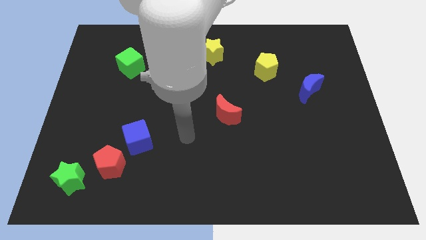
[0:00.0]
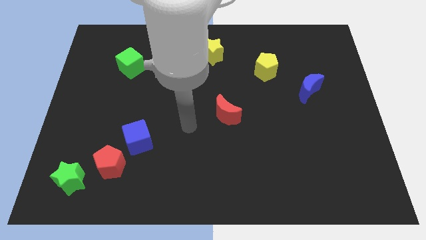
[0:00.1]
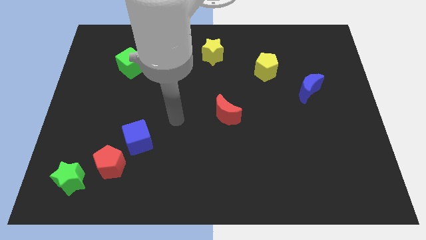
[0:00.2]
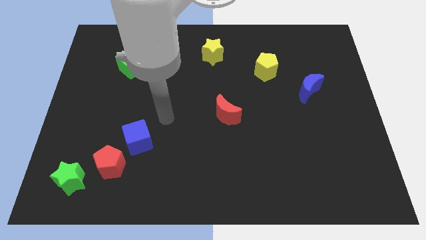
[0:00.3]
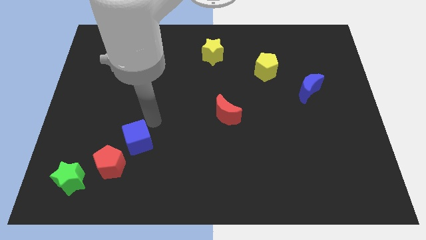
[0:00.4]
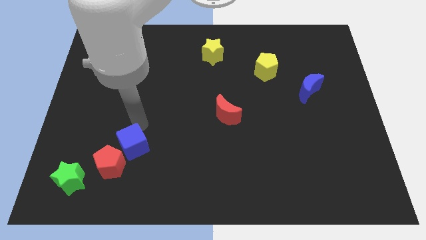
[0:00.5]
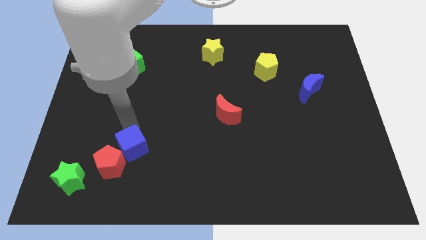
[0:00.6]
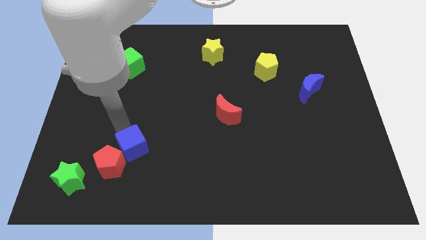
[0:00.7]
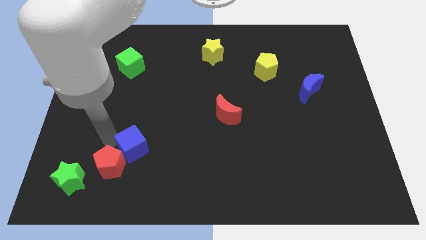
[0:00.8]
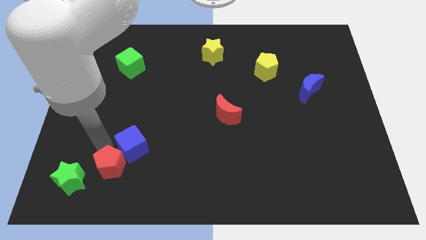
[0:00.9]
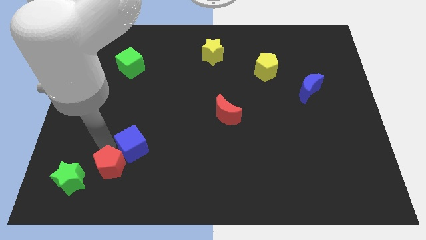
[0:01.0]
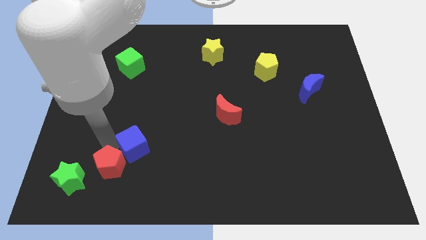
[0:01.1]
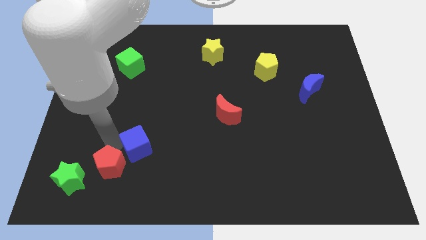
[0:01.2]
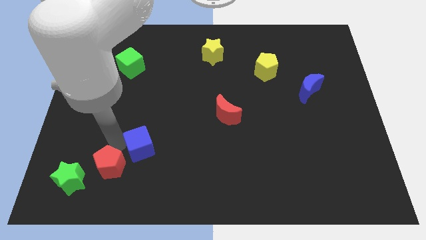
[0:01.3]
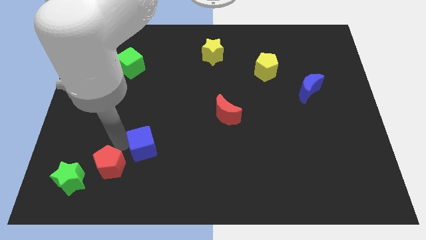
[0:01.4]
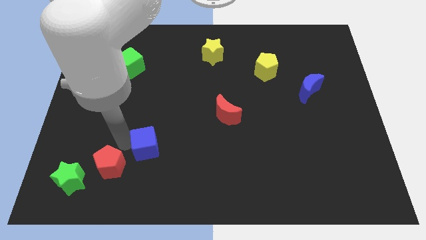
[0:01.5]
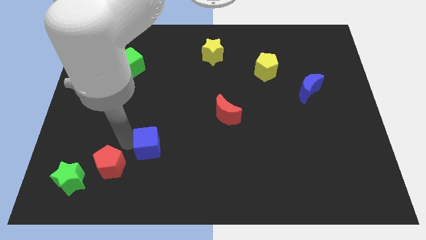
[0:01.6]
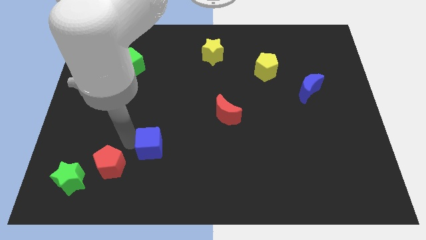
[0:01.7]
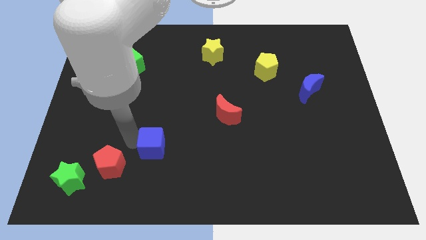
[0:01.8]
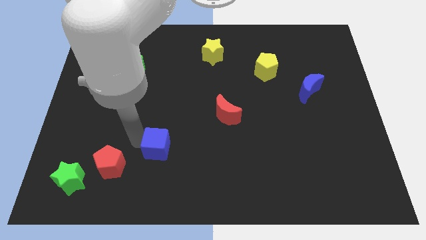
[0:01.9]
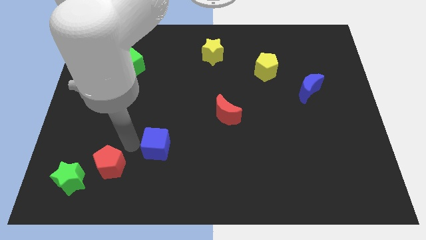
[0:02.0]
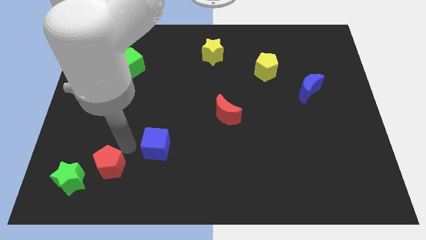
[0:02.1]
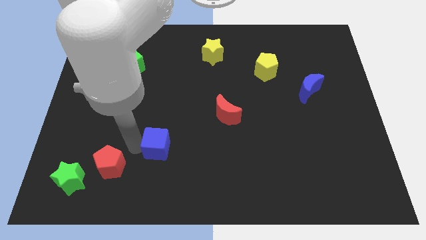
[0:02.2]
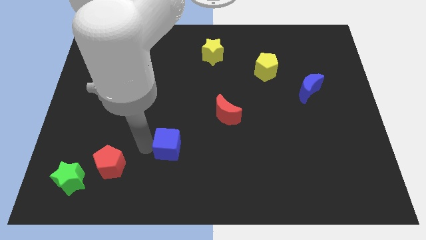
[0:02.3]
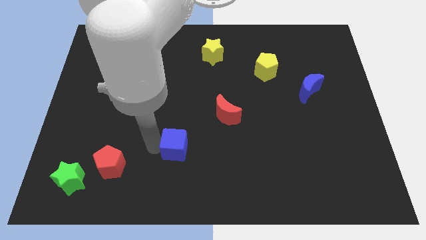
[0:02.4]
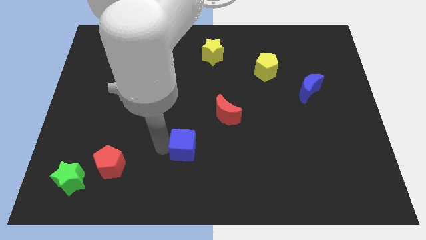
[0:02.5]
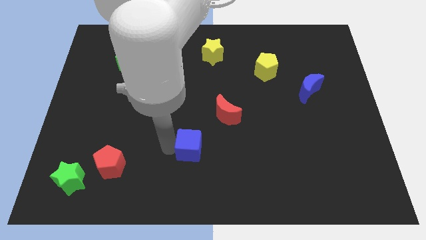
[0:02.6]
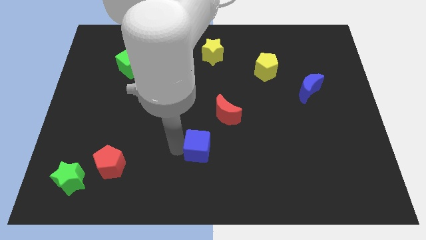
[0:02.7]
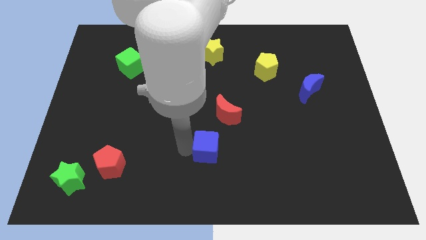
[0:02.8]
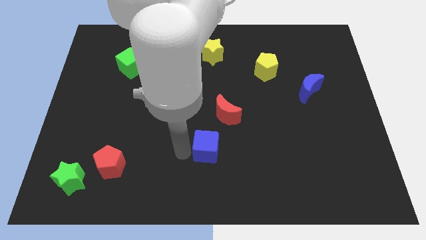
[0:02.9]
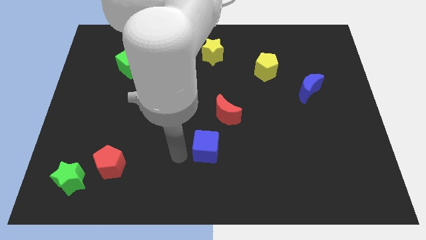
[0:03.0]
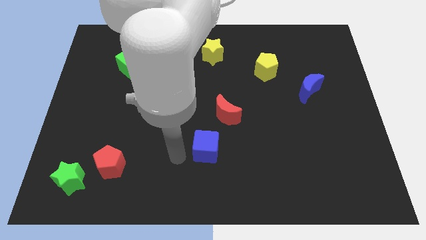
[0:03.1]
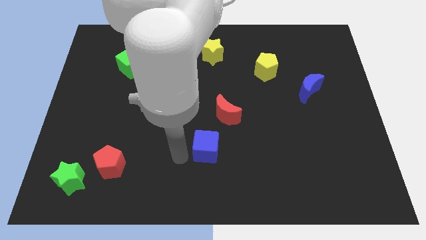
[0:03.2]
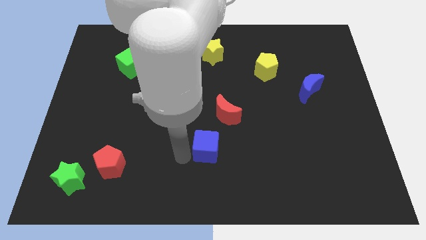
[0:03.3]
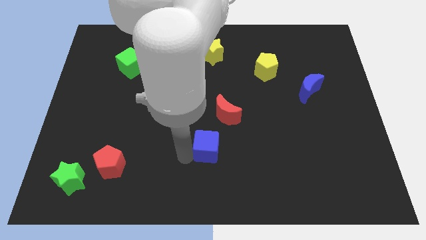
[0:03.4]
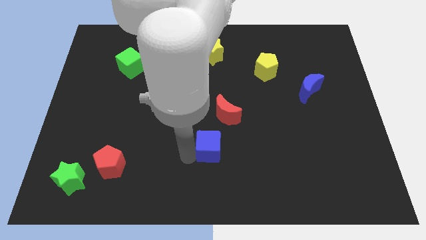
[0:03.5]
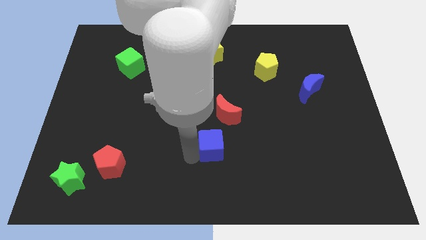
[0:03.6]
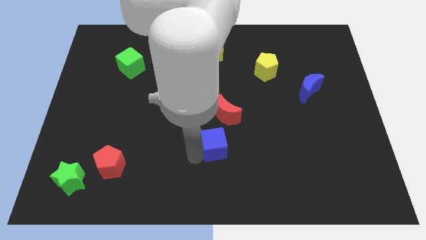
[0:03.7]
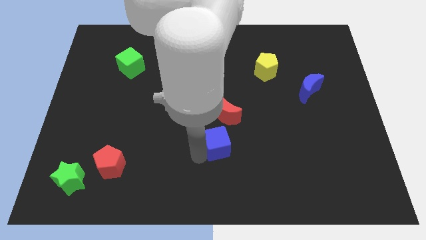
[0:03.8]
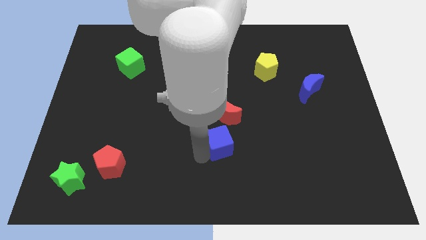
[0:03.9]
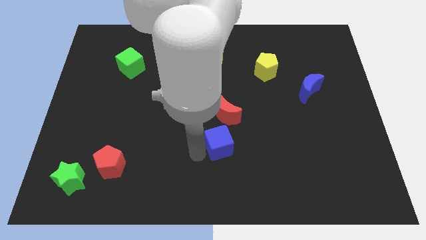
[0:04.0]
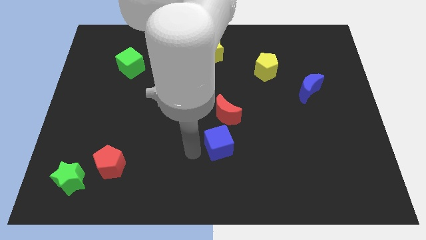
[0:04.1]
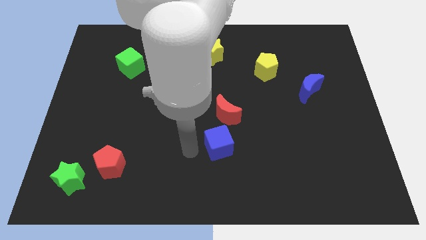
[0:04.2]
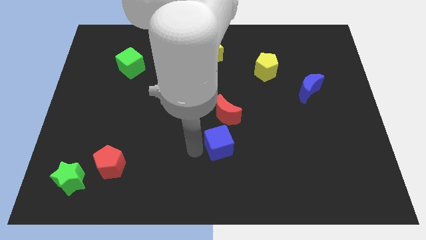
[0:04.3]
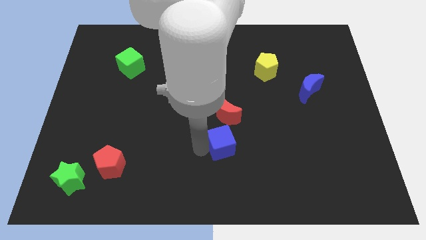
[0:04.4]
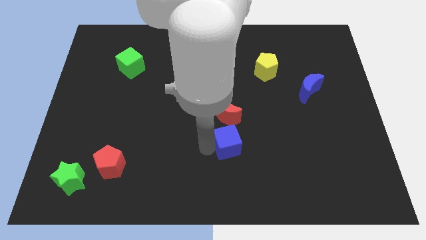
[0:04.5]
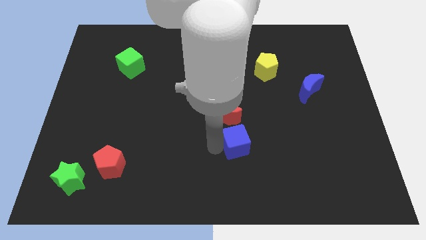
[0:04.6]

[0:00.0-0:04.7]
slide the blue cube to the right

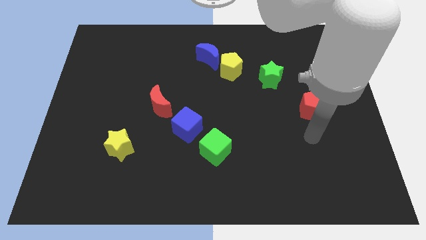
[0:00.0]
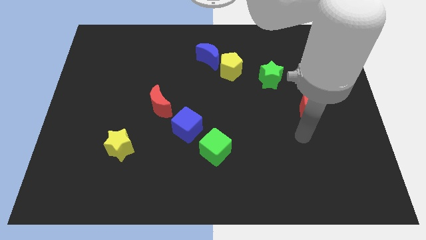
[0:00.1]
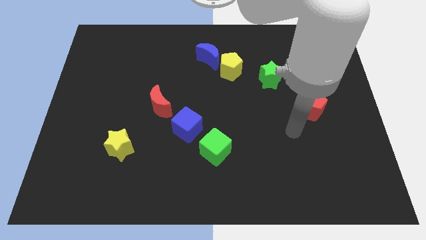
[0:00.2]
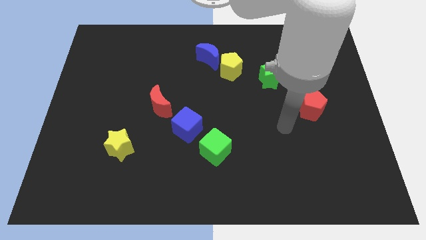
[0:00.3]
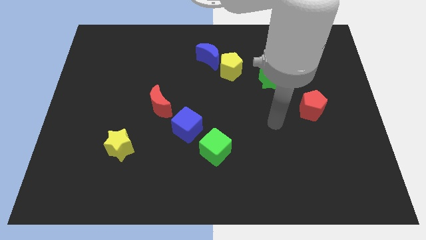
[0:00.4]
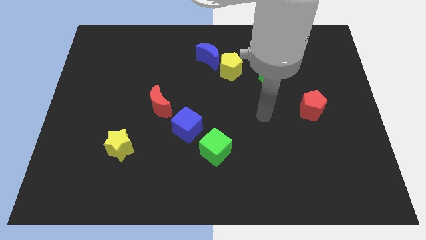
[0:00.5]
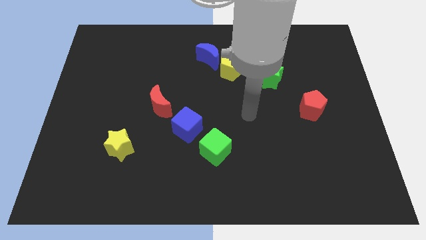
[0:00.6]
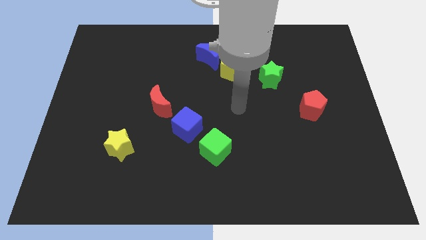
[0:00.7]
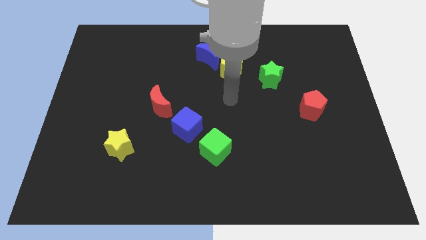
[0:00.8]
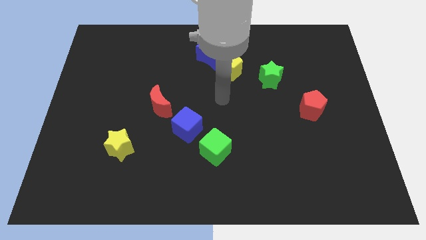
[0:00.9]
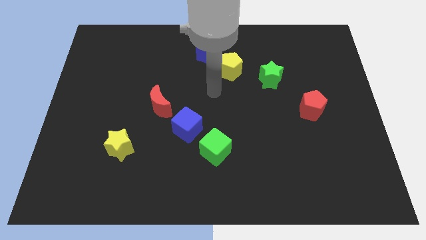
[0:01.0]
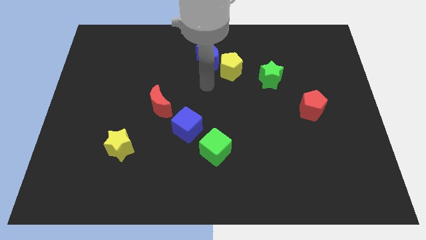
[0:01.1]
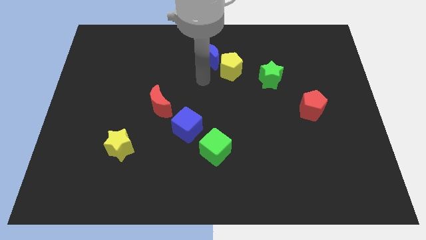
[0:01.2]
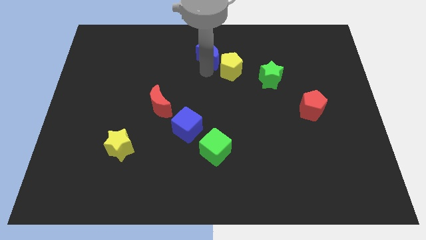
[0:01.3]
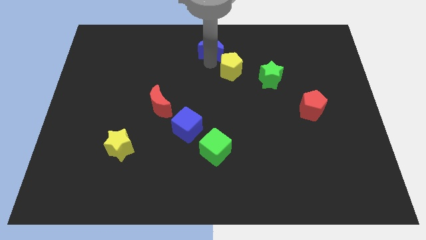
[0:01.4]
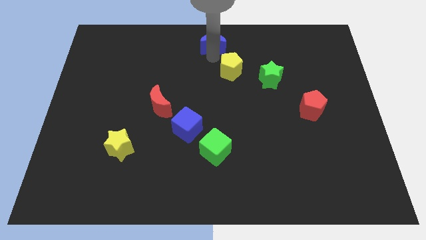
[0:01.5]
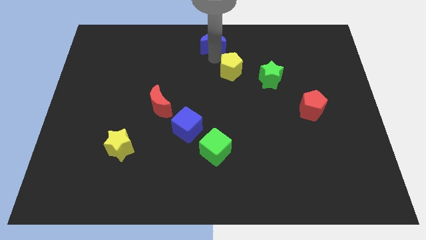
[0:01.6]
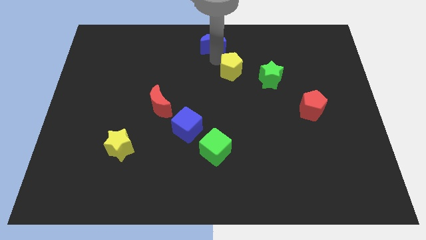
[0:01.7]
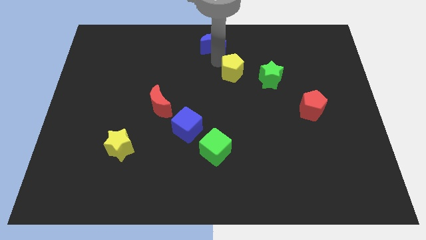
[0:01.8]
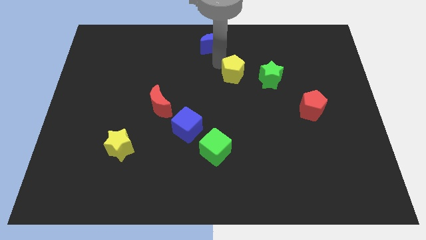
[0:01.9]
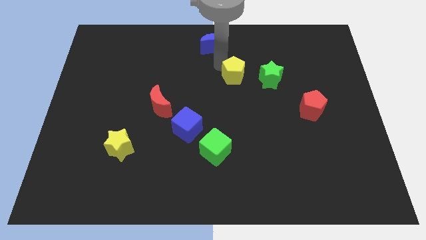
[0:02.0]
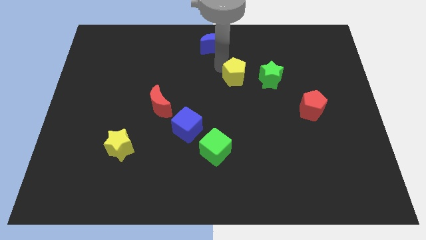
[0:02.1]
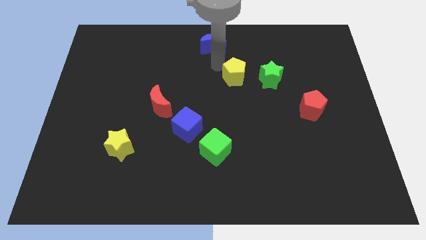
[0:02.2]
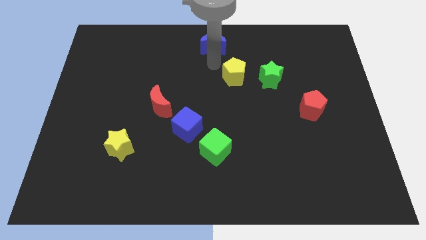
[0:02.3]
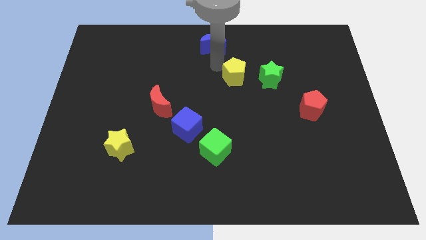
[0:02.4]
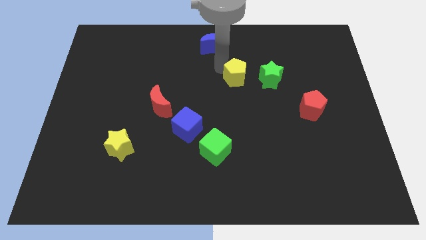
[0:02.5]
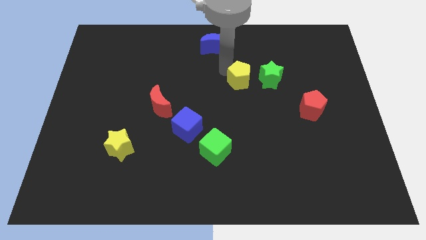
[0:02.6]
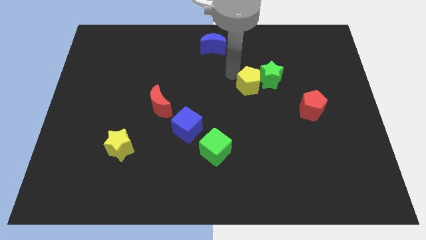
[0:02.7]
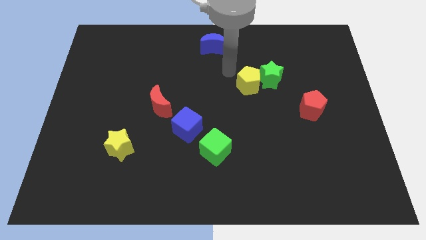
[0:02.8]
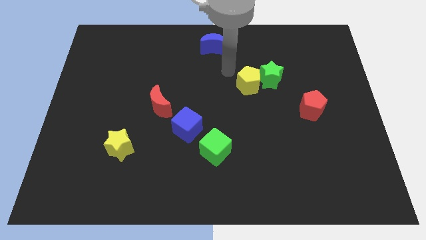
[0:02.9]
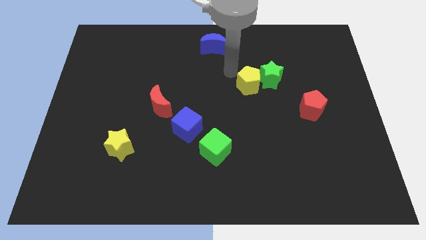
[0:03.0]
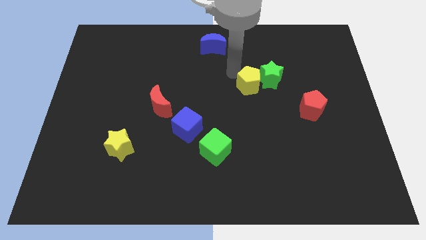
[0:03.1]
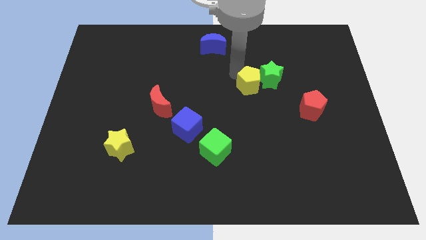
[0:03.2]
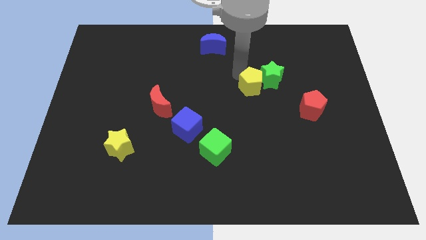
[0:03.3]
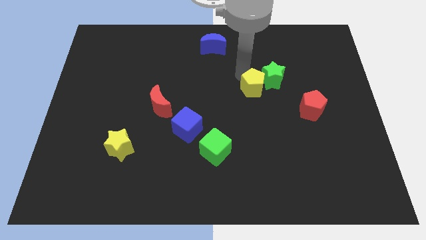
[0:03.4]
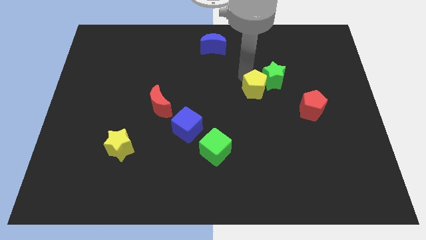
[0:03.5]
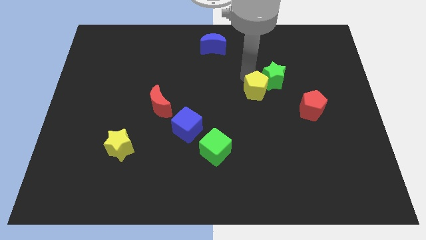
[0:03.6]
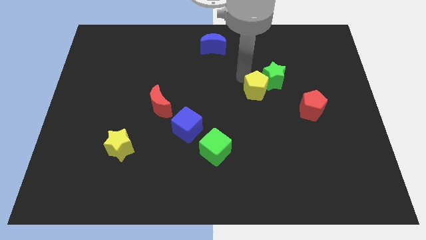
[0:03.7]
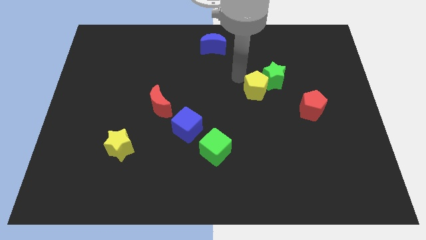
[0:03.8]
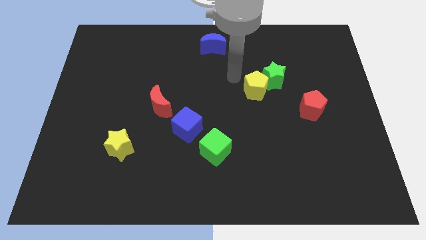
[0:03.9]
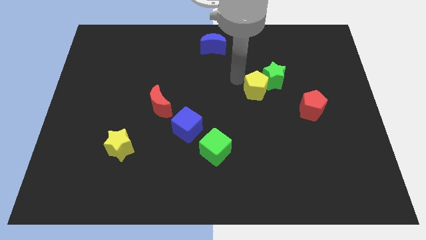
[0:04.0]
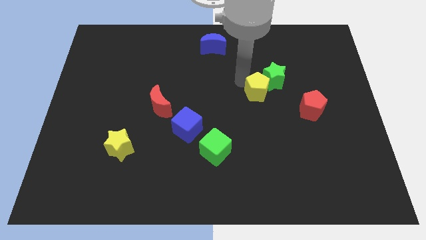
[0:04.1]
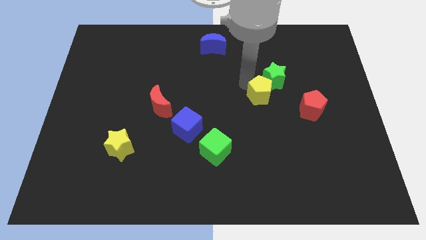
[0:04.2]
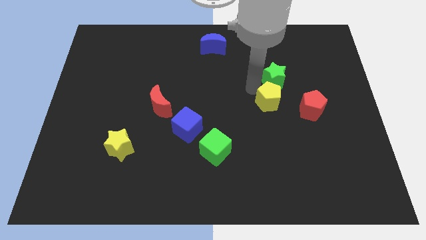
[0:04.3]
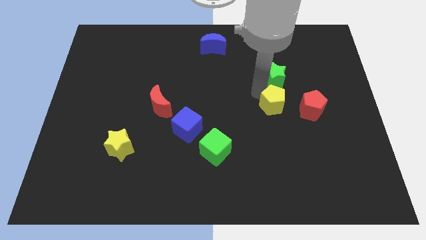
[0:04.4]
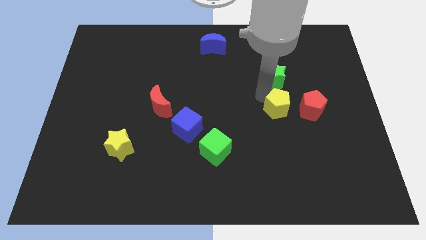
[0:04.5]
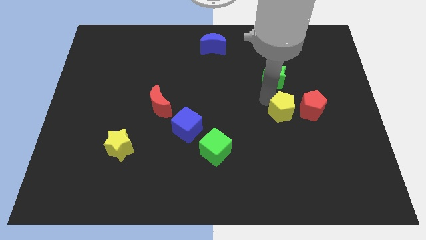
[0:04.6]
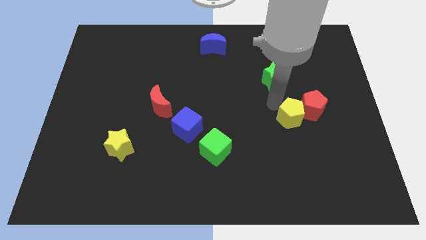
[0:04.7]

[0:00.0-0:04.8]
slide the yellow pentagon down and to the right diagonally
